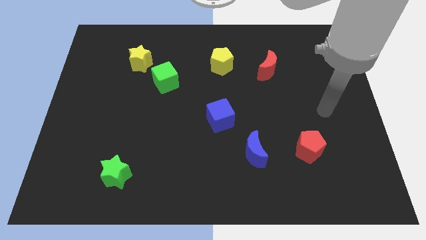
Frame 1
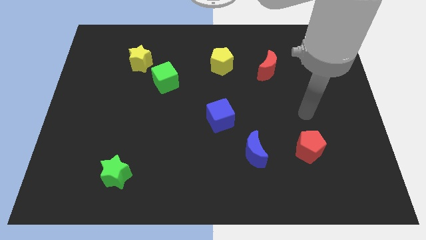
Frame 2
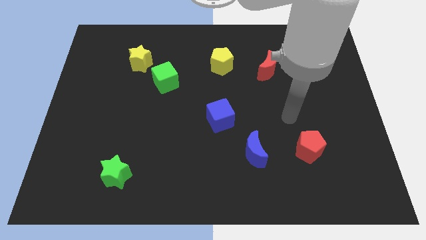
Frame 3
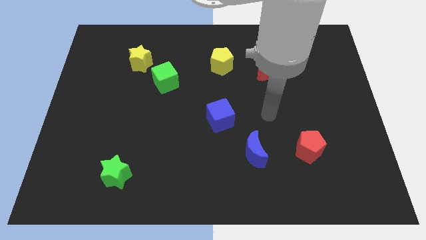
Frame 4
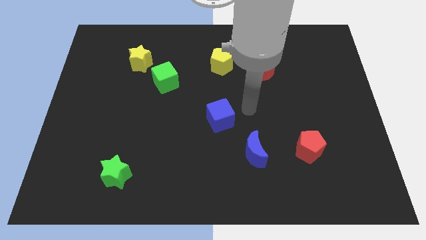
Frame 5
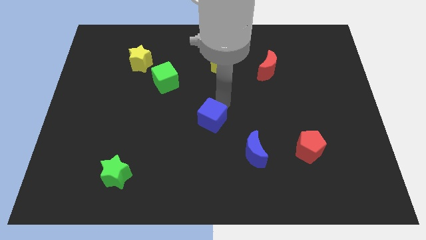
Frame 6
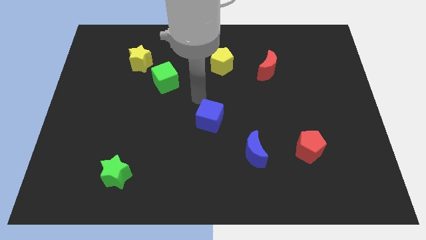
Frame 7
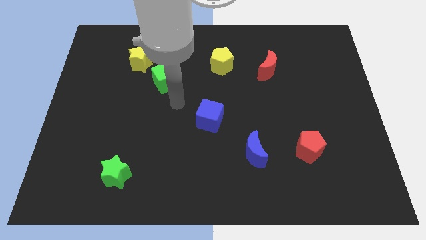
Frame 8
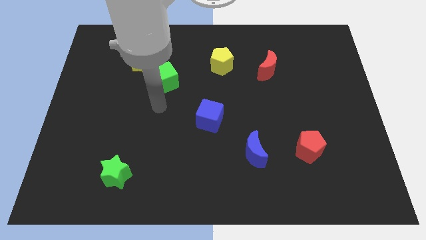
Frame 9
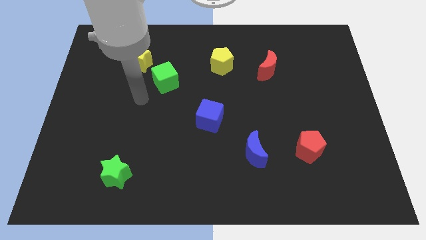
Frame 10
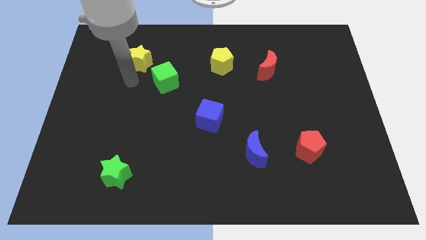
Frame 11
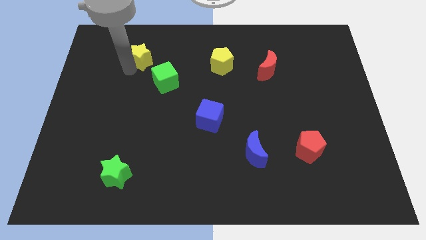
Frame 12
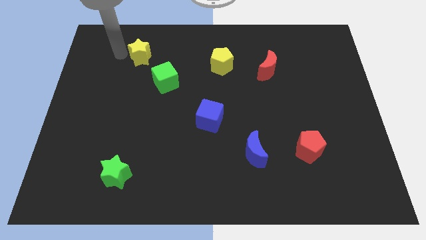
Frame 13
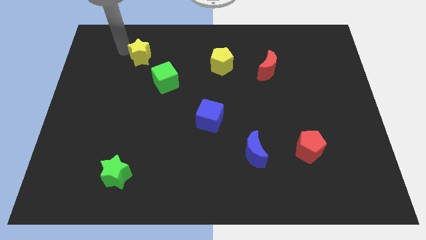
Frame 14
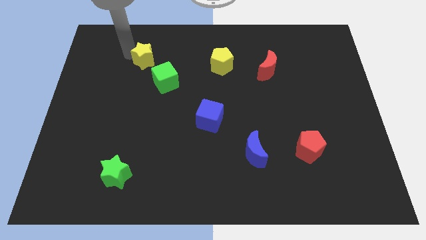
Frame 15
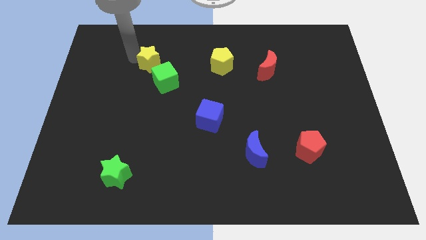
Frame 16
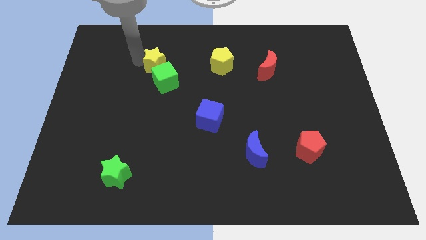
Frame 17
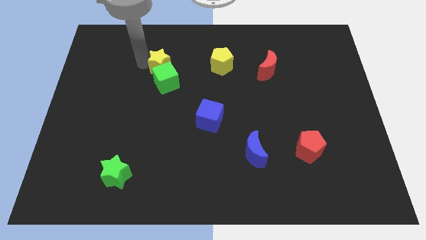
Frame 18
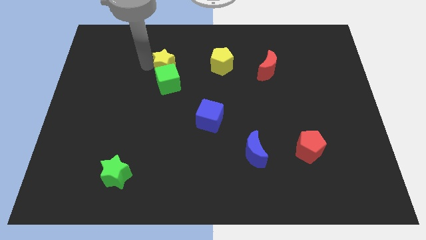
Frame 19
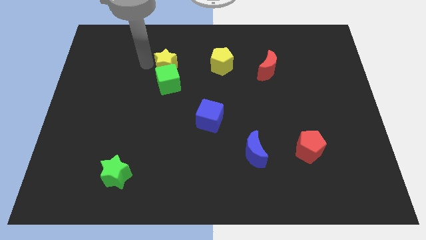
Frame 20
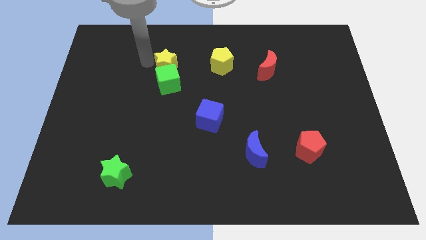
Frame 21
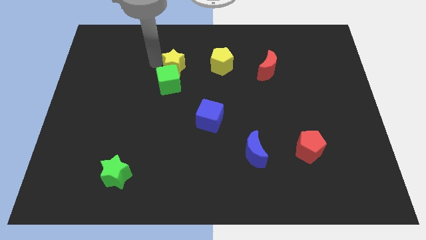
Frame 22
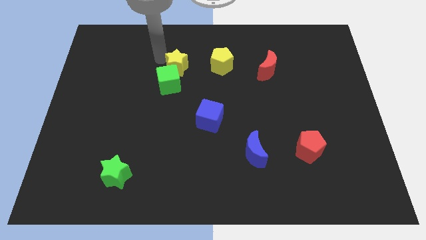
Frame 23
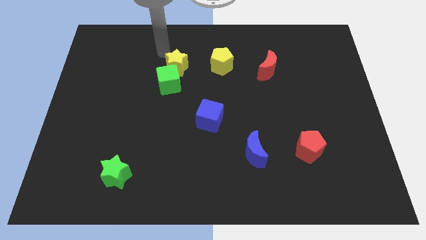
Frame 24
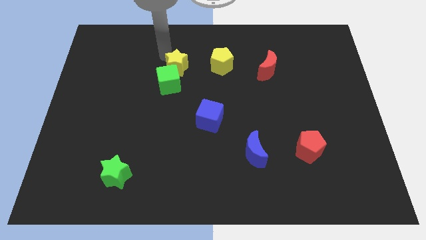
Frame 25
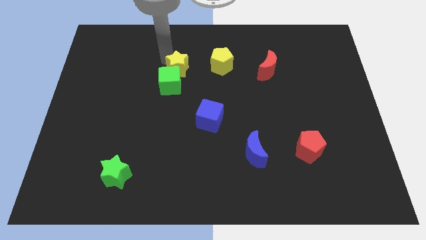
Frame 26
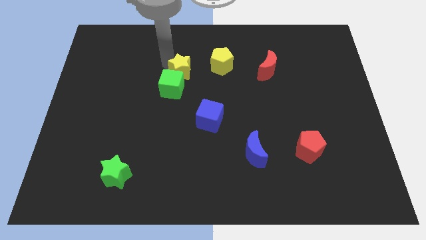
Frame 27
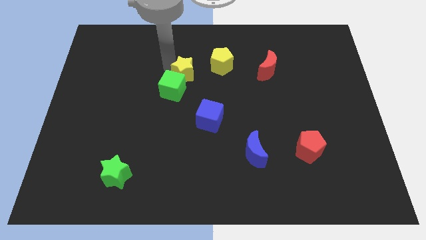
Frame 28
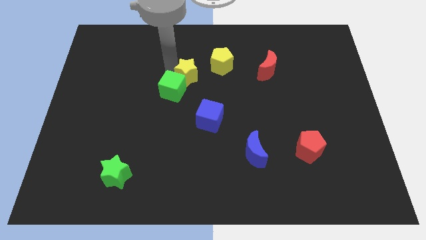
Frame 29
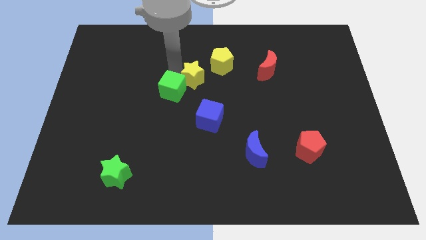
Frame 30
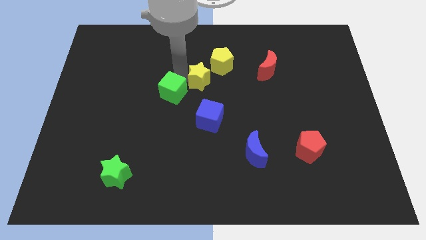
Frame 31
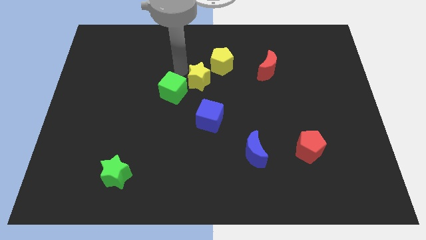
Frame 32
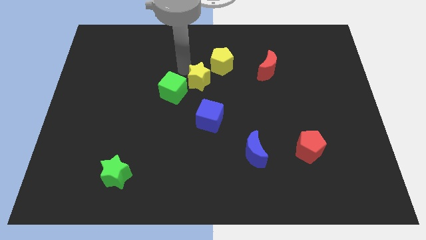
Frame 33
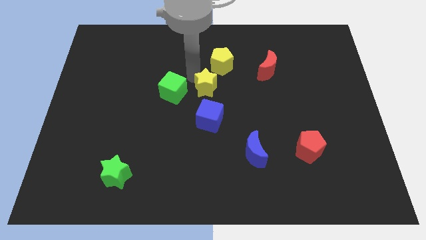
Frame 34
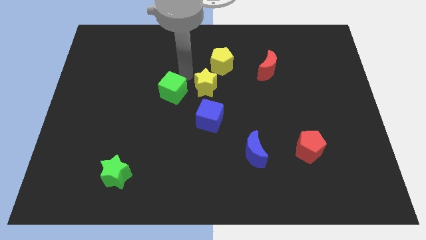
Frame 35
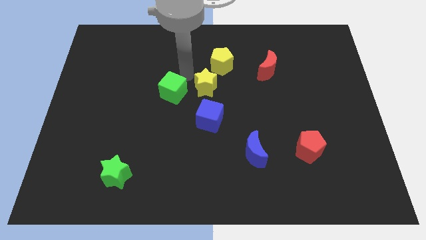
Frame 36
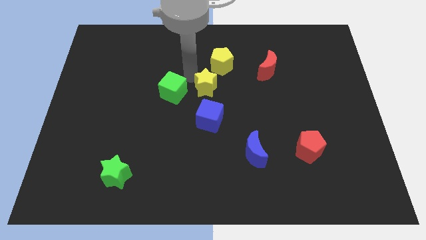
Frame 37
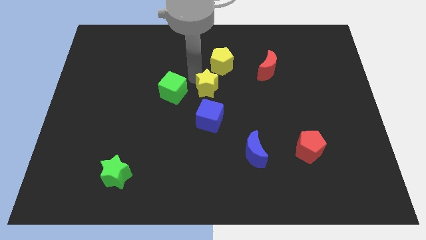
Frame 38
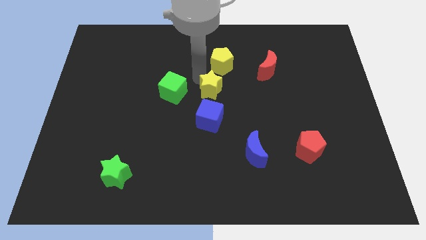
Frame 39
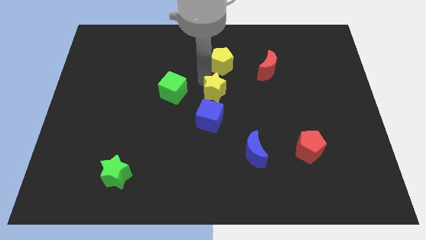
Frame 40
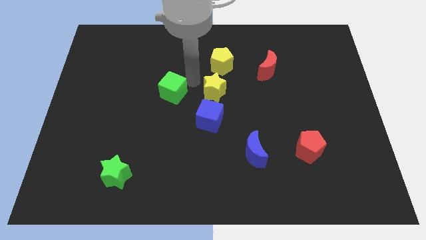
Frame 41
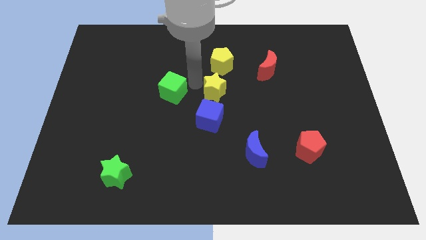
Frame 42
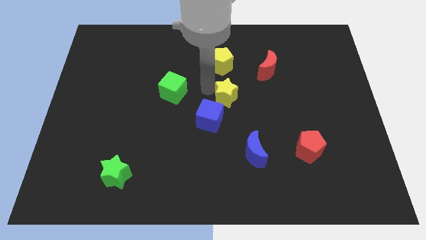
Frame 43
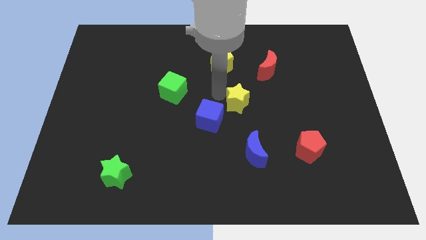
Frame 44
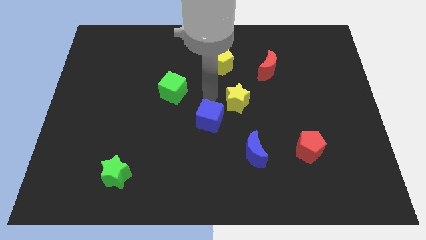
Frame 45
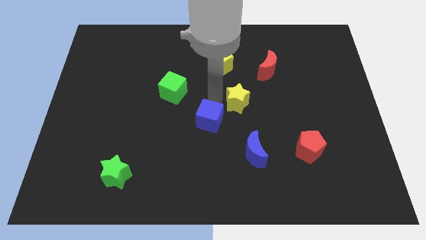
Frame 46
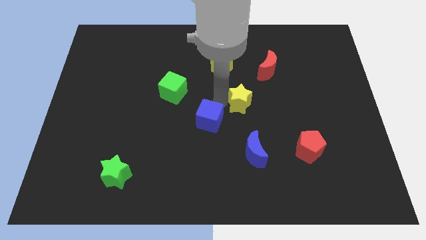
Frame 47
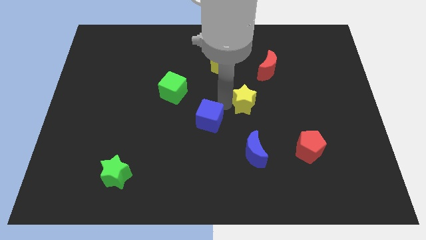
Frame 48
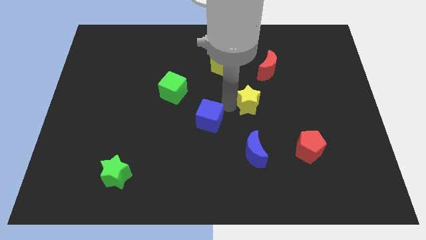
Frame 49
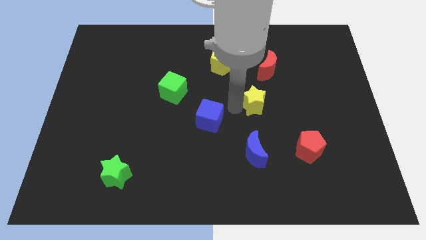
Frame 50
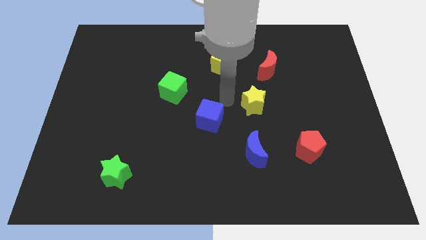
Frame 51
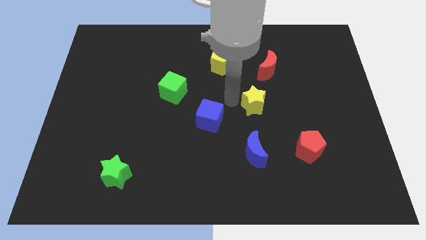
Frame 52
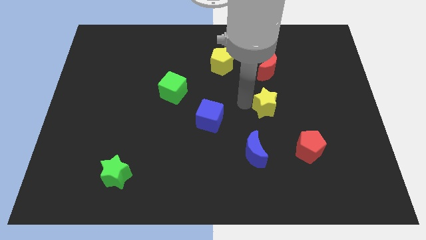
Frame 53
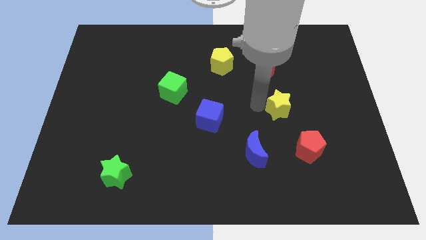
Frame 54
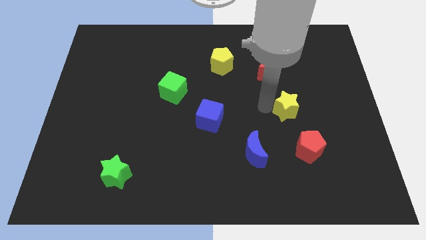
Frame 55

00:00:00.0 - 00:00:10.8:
move the yellow star to the top of the red pentagon

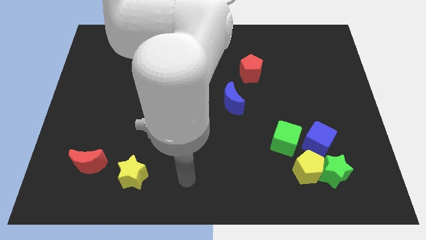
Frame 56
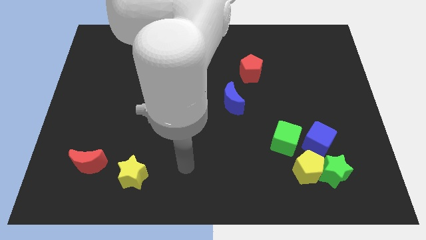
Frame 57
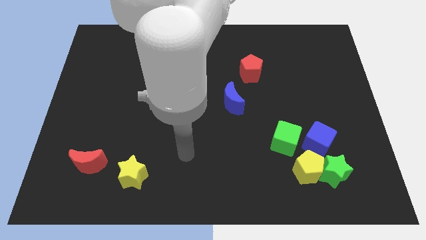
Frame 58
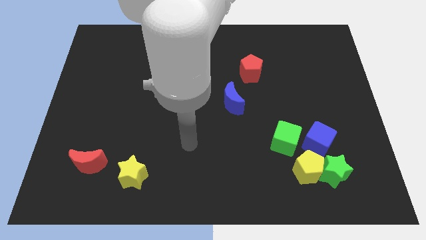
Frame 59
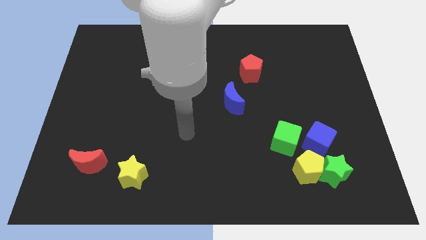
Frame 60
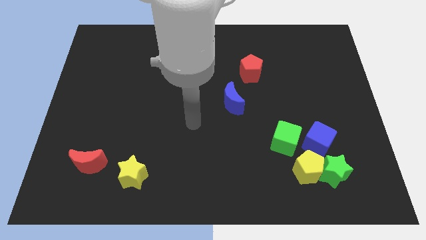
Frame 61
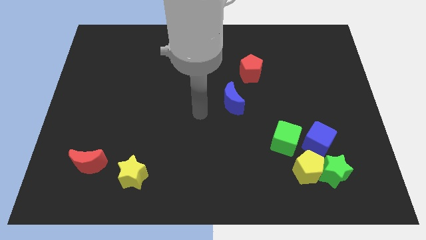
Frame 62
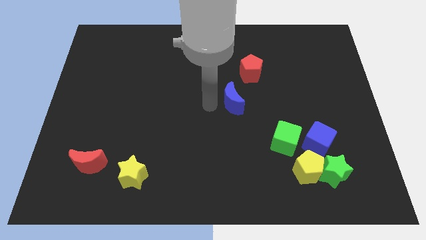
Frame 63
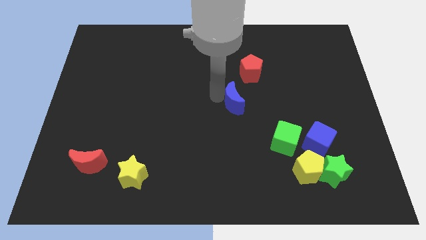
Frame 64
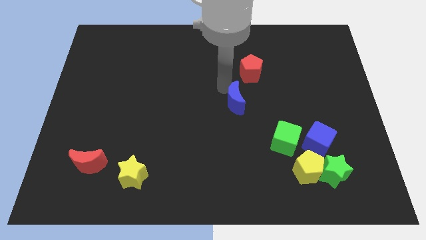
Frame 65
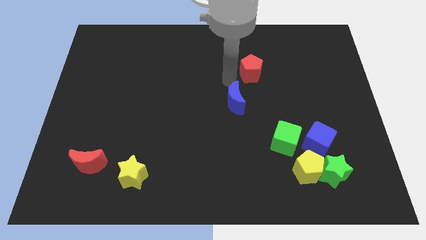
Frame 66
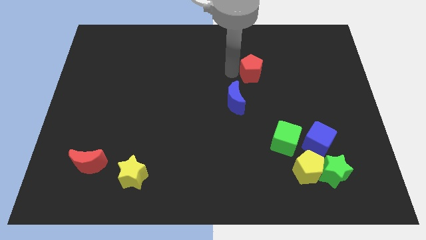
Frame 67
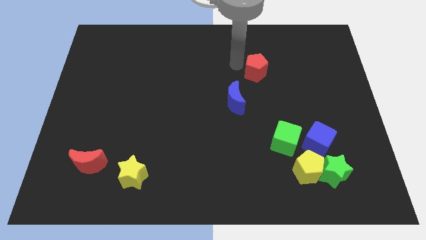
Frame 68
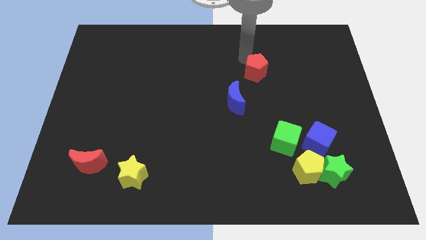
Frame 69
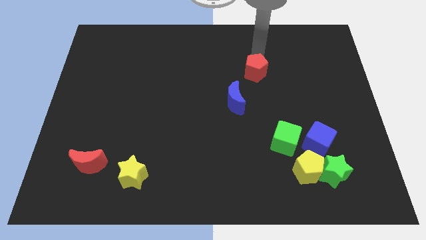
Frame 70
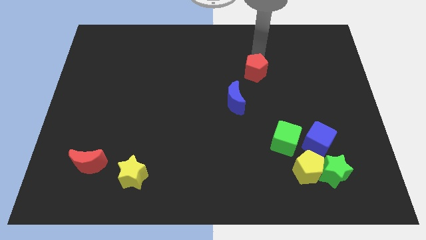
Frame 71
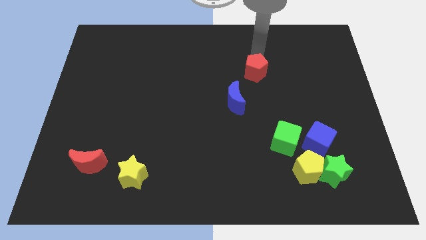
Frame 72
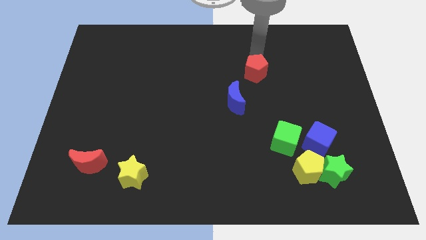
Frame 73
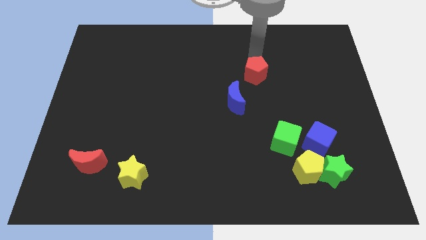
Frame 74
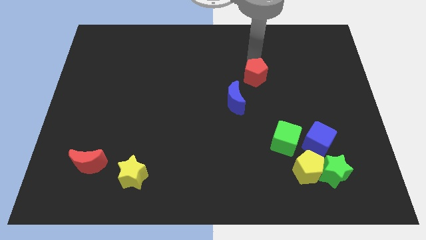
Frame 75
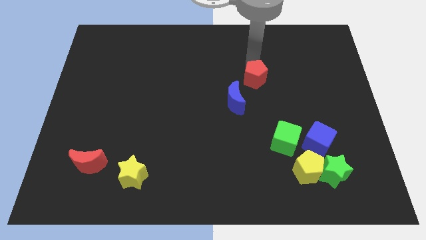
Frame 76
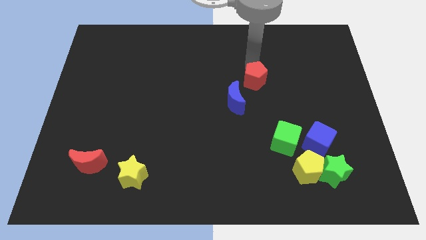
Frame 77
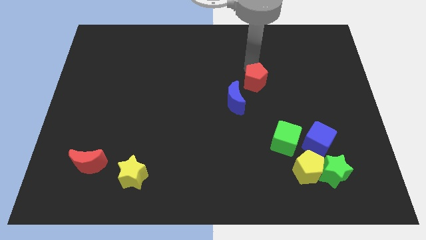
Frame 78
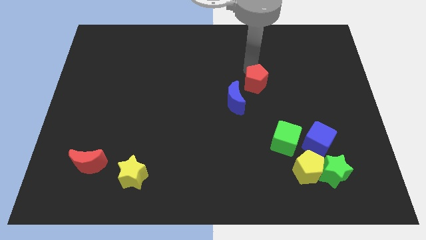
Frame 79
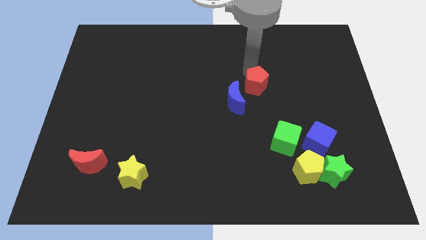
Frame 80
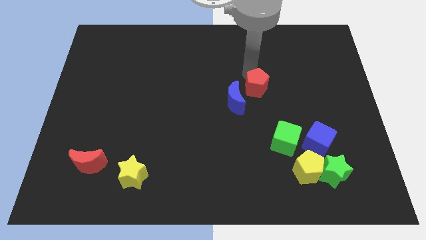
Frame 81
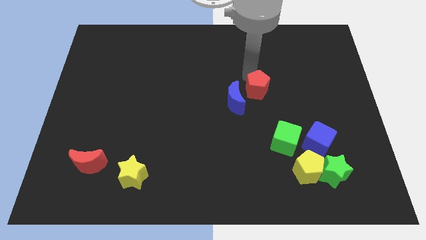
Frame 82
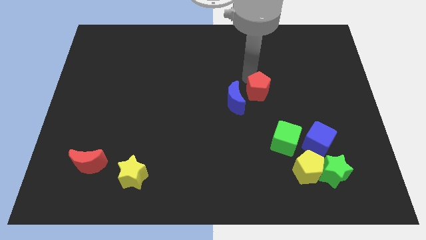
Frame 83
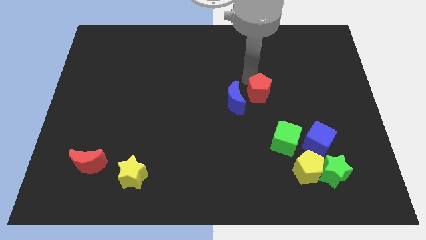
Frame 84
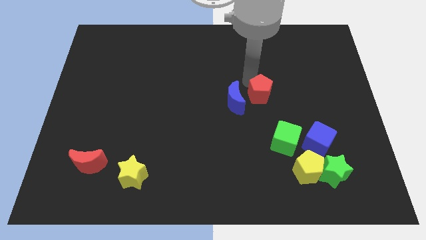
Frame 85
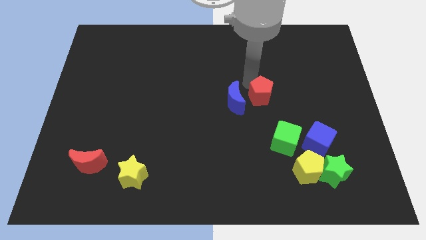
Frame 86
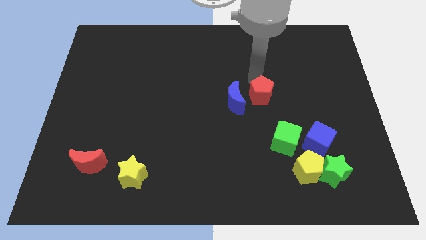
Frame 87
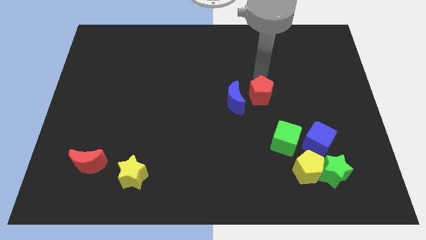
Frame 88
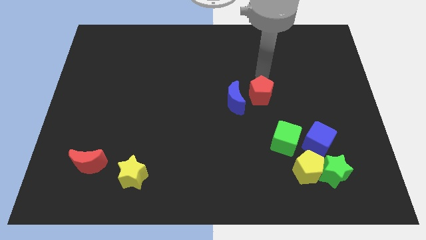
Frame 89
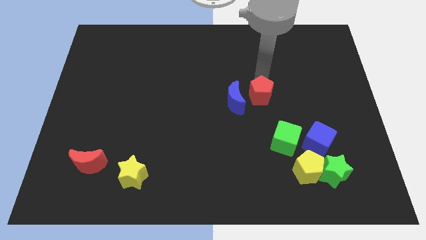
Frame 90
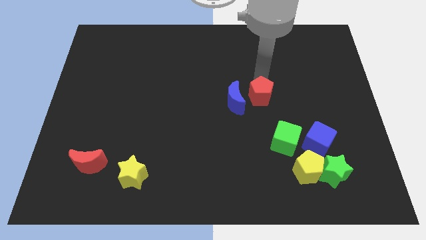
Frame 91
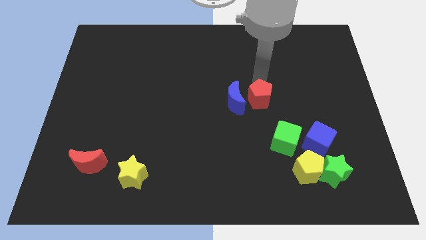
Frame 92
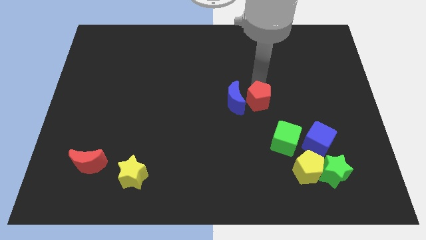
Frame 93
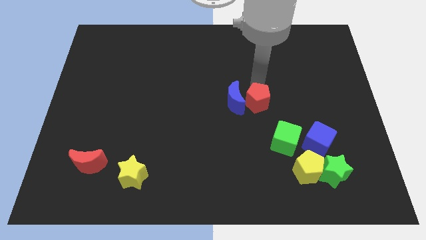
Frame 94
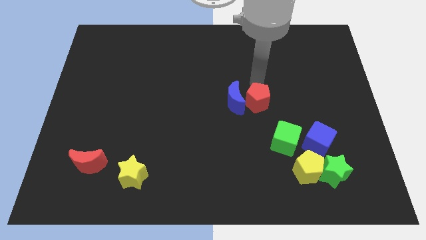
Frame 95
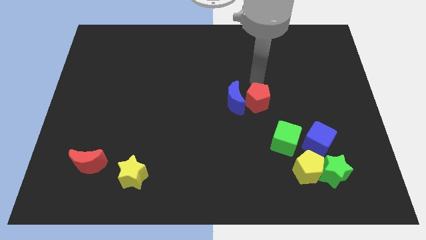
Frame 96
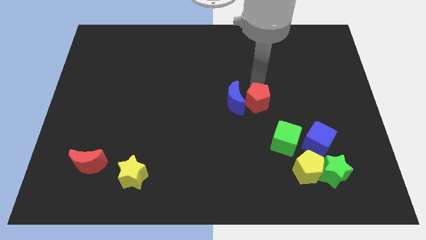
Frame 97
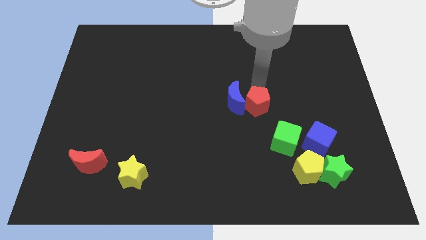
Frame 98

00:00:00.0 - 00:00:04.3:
put the red pentagon to the top left of the green cube
